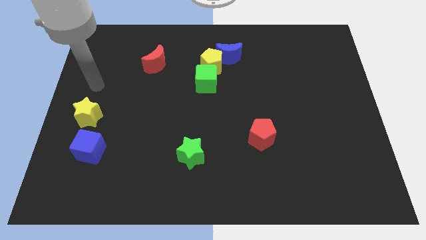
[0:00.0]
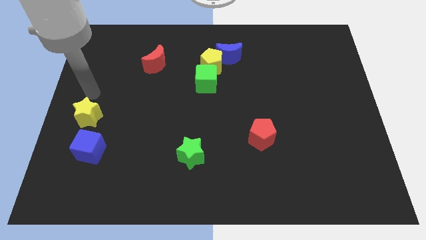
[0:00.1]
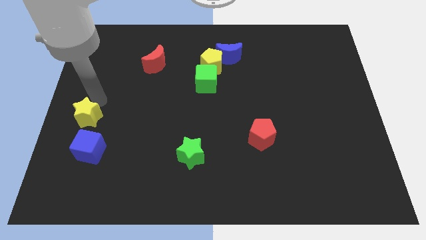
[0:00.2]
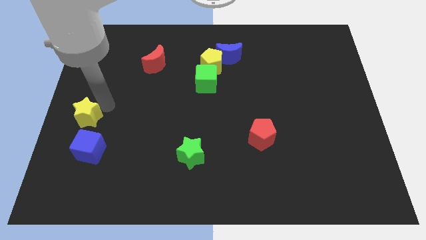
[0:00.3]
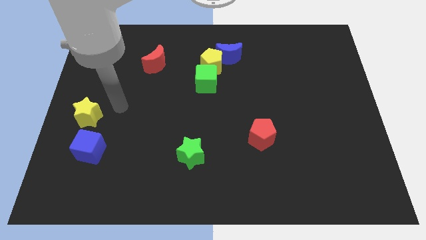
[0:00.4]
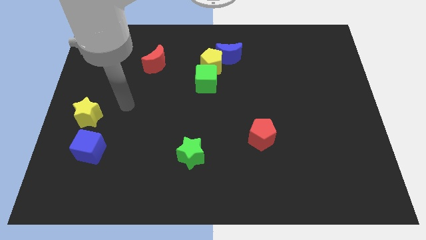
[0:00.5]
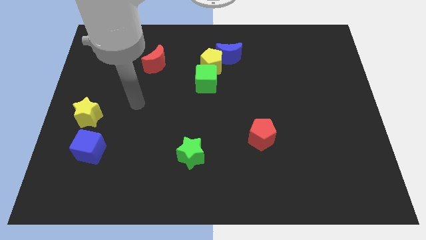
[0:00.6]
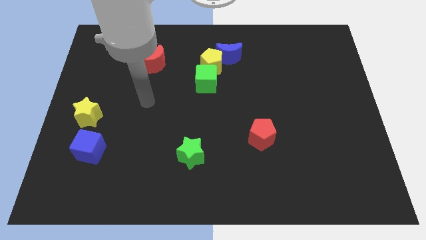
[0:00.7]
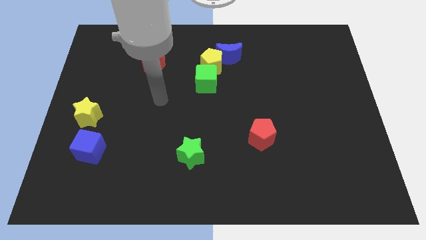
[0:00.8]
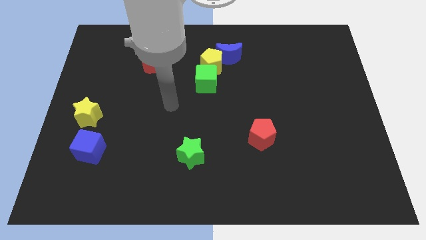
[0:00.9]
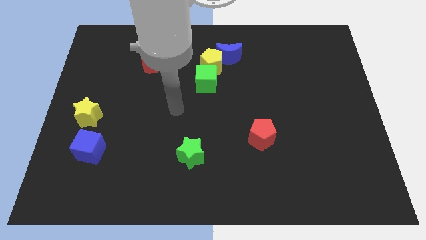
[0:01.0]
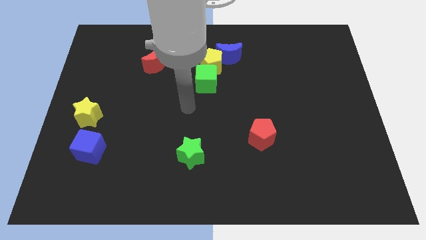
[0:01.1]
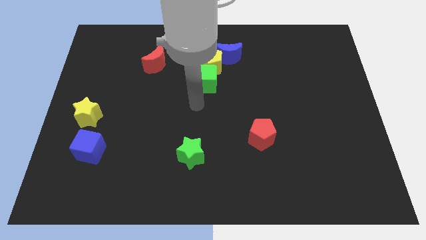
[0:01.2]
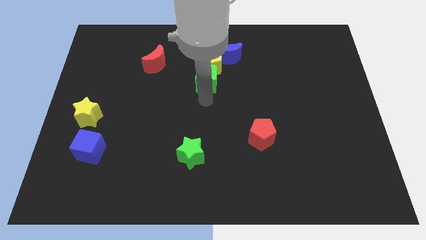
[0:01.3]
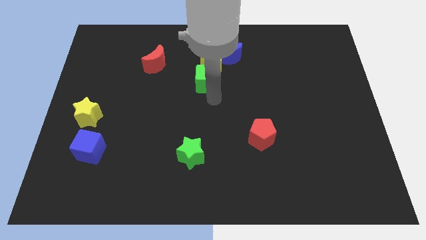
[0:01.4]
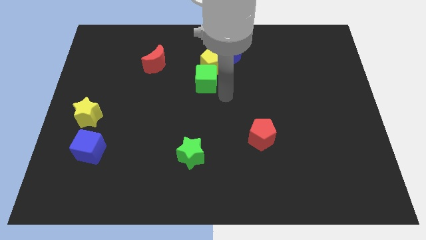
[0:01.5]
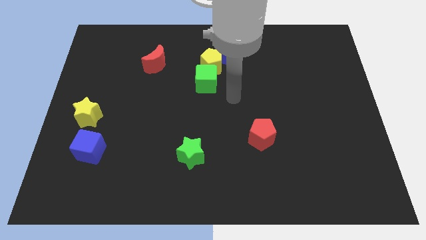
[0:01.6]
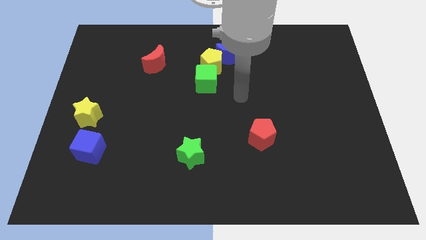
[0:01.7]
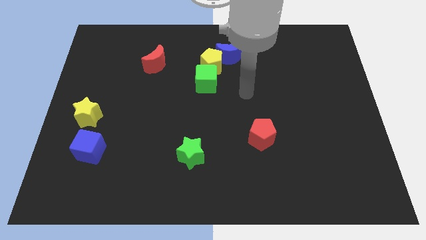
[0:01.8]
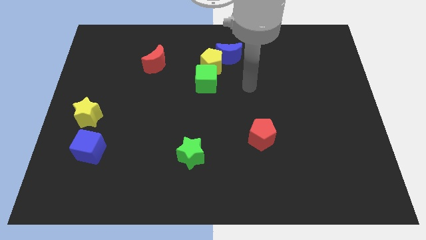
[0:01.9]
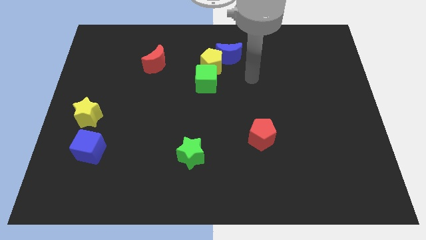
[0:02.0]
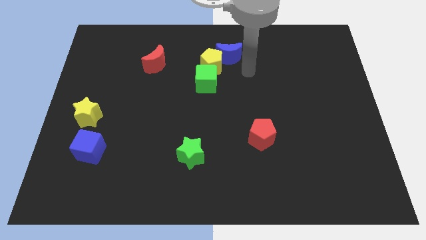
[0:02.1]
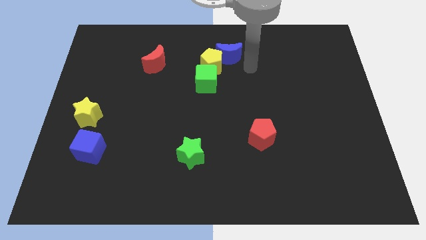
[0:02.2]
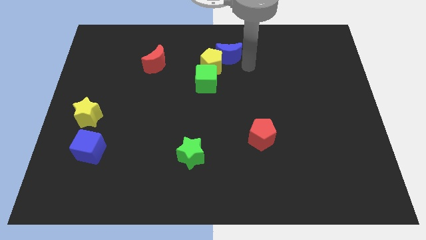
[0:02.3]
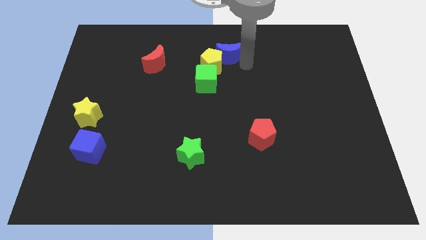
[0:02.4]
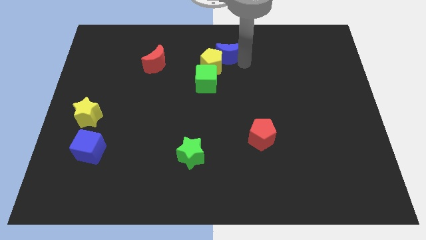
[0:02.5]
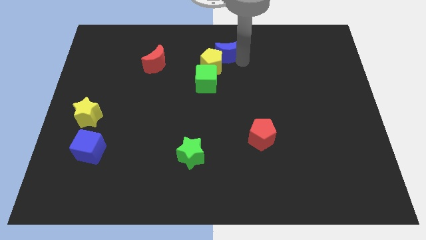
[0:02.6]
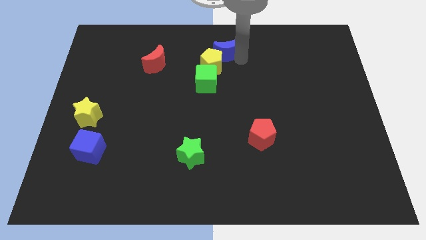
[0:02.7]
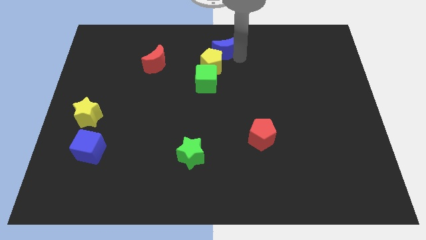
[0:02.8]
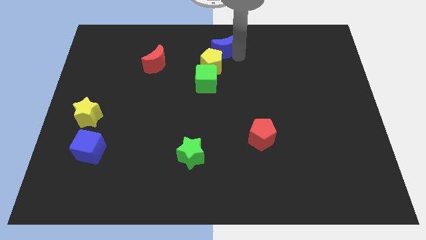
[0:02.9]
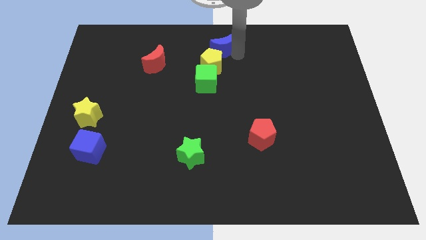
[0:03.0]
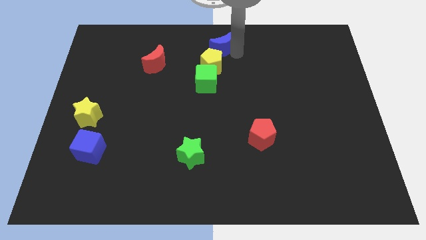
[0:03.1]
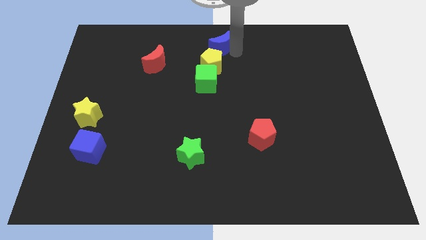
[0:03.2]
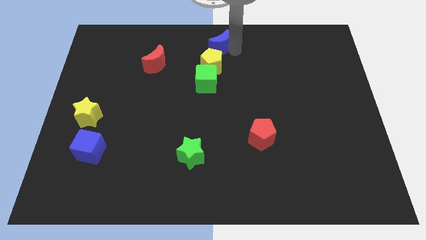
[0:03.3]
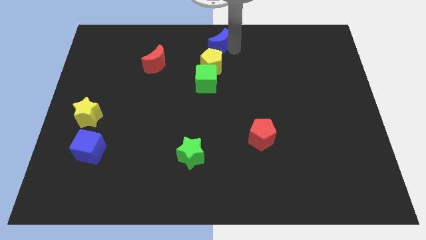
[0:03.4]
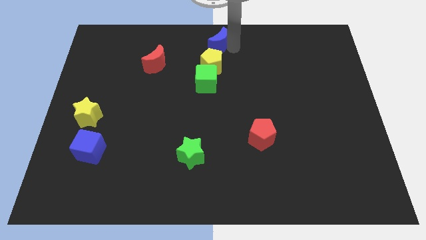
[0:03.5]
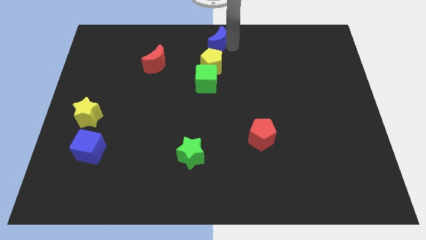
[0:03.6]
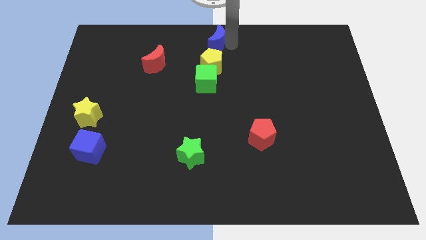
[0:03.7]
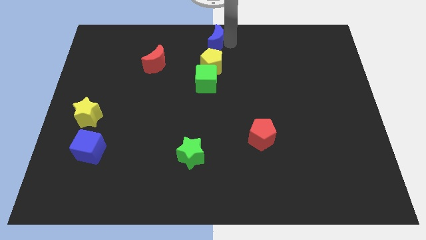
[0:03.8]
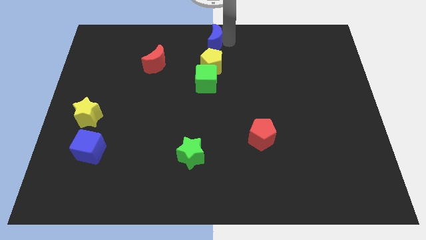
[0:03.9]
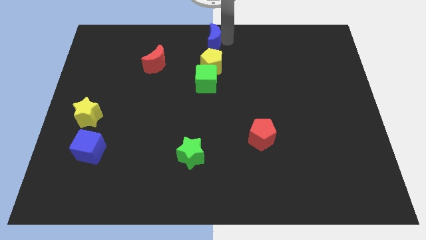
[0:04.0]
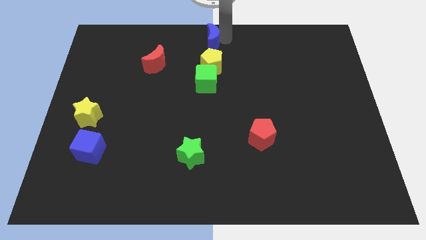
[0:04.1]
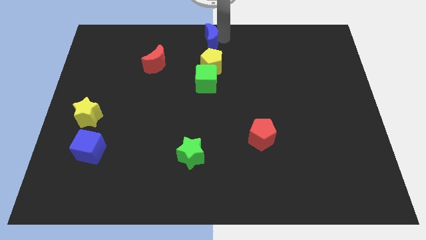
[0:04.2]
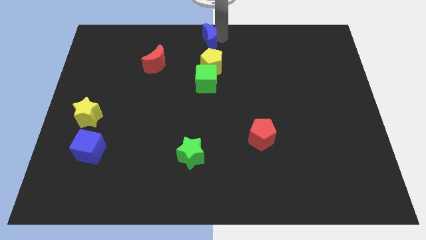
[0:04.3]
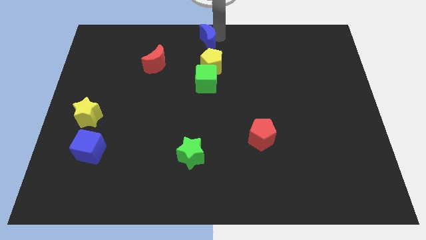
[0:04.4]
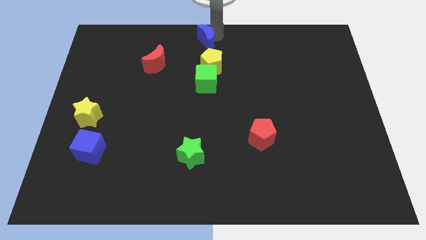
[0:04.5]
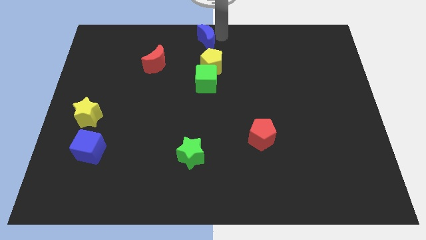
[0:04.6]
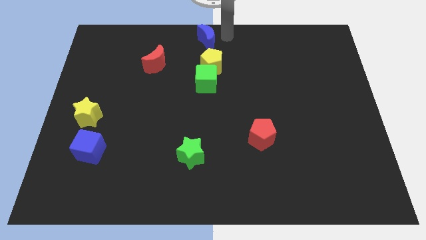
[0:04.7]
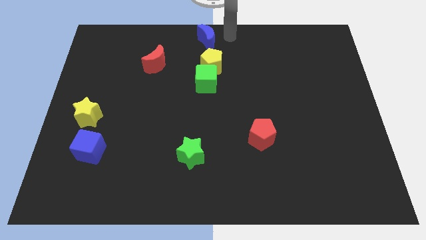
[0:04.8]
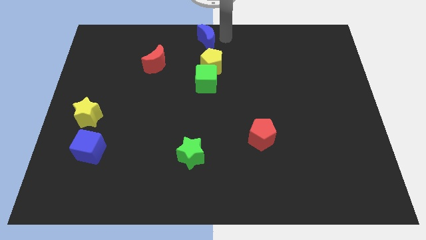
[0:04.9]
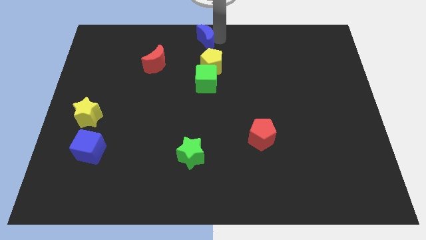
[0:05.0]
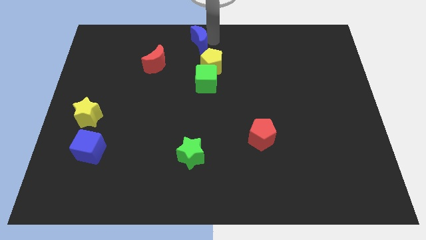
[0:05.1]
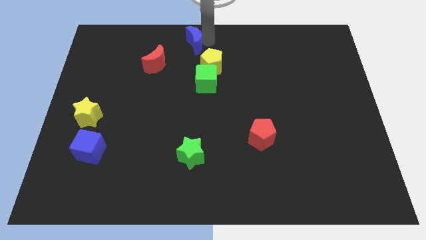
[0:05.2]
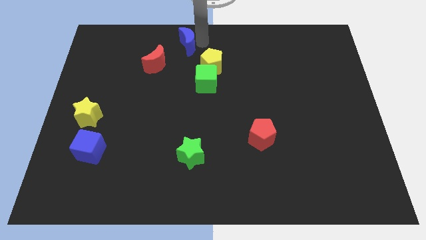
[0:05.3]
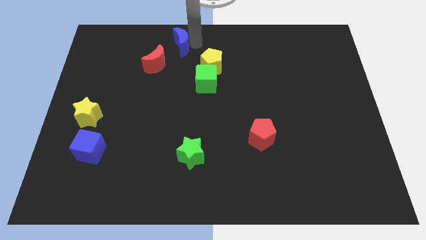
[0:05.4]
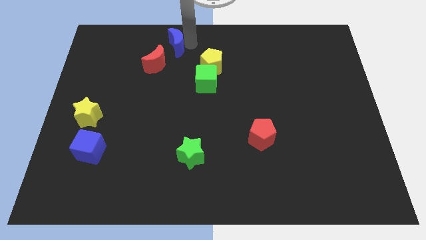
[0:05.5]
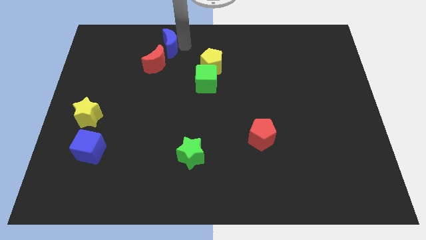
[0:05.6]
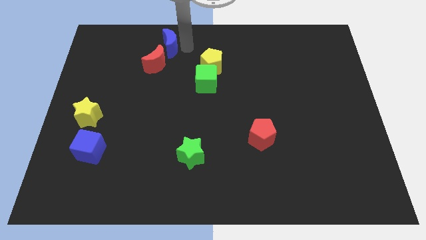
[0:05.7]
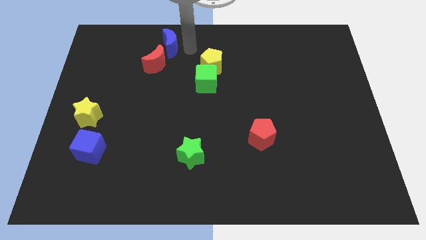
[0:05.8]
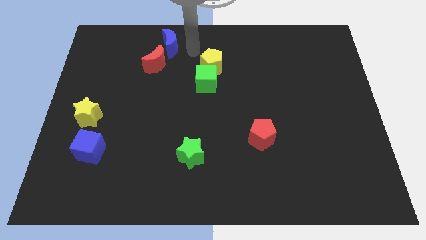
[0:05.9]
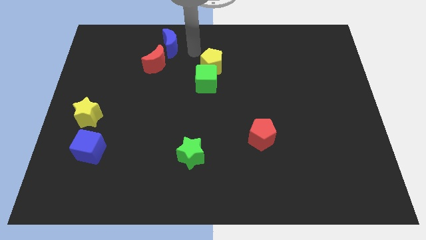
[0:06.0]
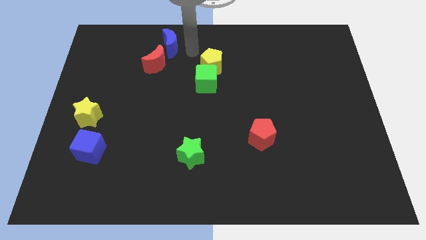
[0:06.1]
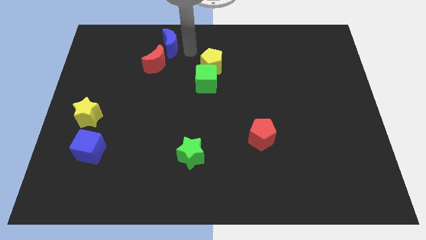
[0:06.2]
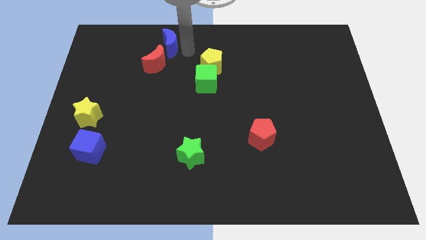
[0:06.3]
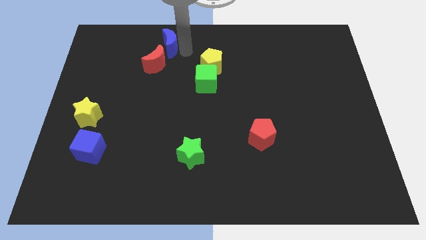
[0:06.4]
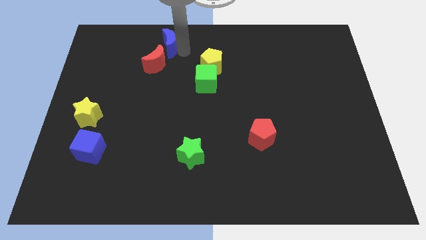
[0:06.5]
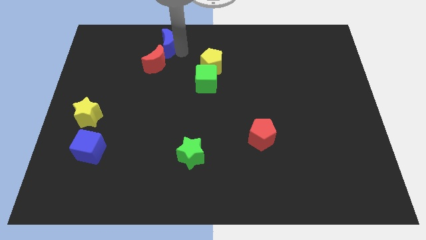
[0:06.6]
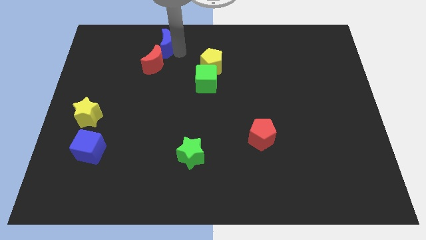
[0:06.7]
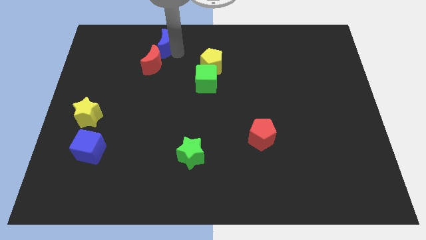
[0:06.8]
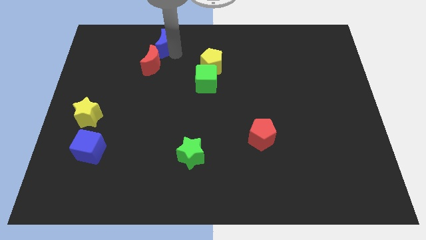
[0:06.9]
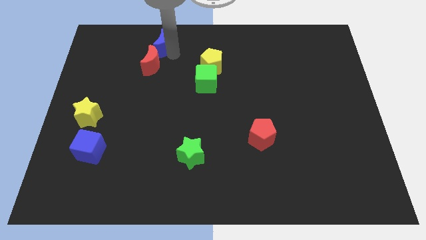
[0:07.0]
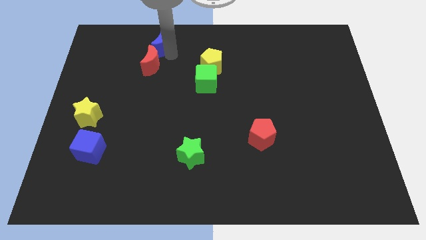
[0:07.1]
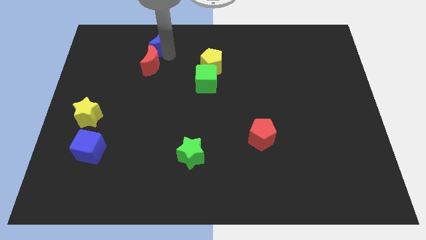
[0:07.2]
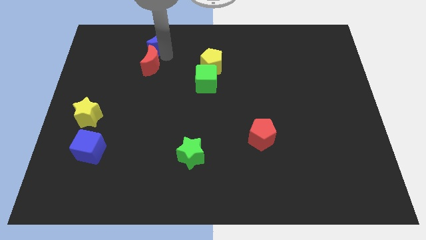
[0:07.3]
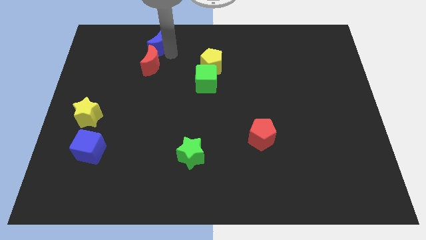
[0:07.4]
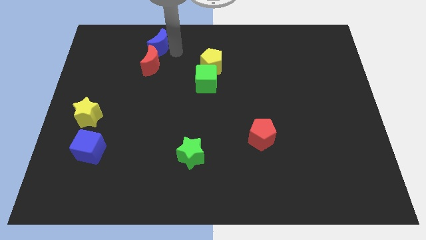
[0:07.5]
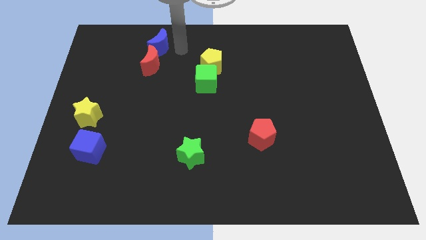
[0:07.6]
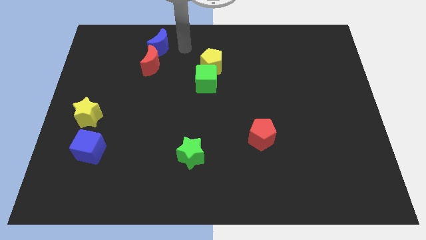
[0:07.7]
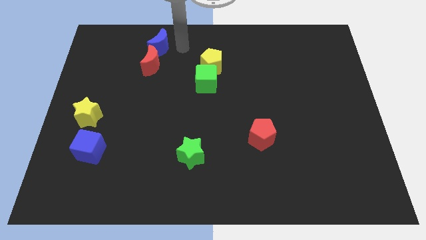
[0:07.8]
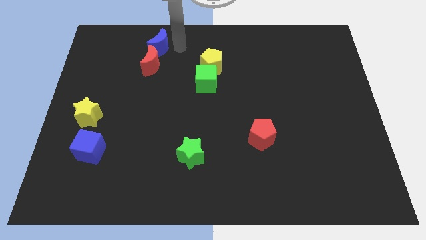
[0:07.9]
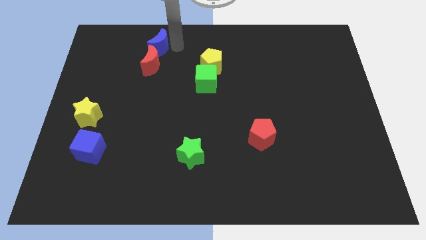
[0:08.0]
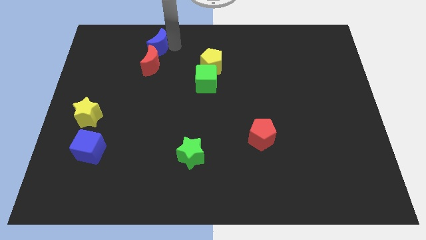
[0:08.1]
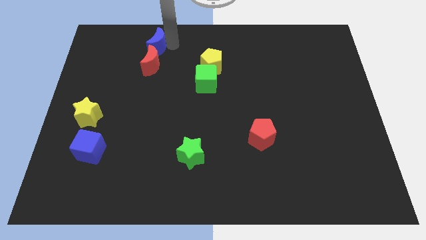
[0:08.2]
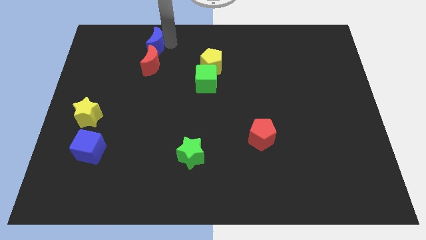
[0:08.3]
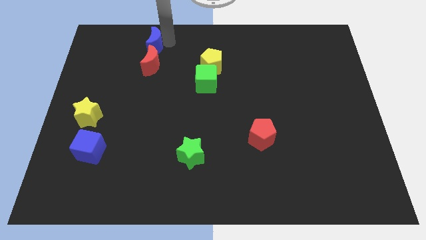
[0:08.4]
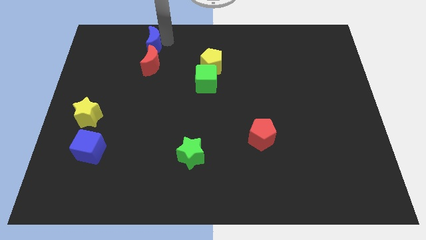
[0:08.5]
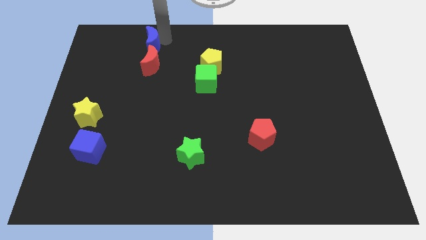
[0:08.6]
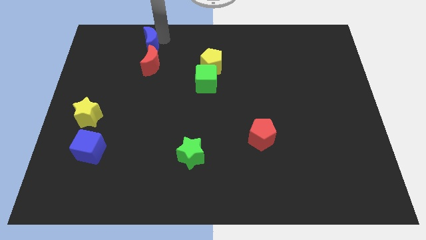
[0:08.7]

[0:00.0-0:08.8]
slide the blue moon to the left
